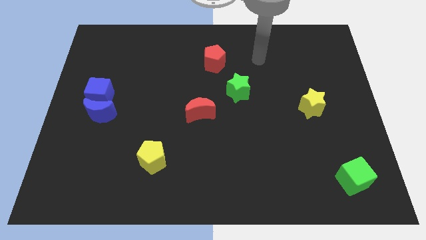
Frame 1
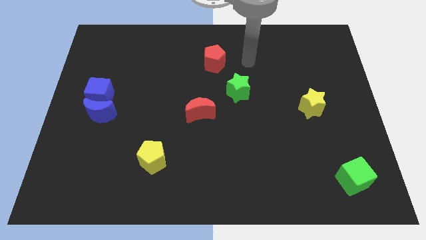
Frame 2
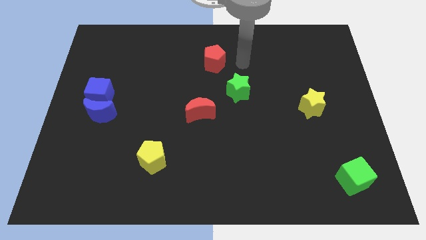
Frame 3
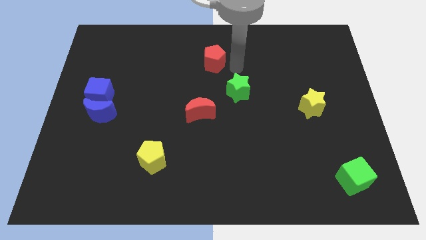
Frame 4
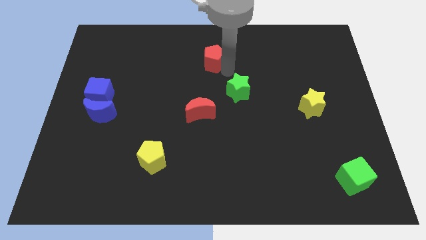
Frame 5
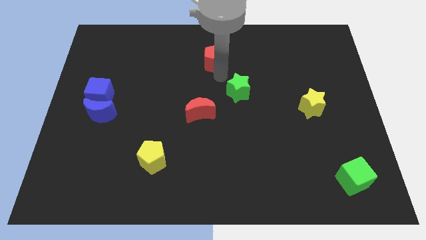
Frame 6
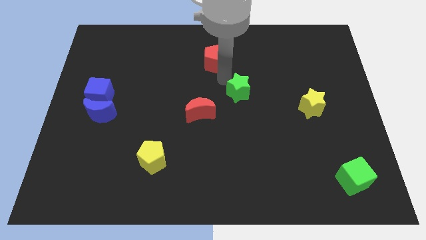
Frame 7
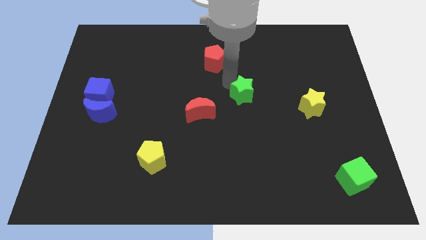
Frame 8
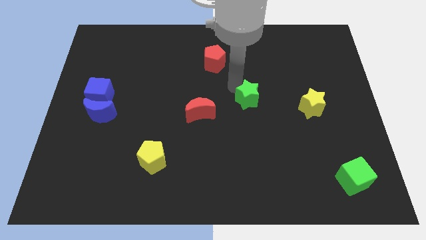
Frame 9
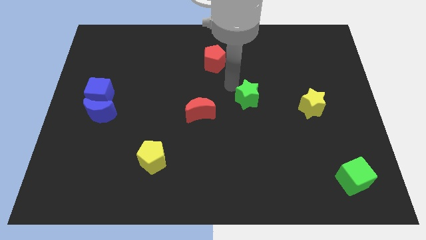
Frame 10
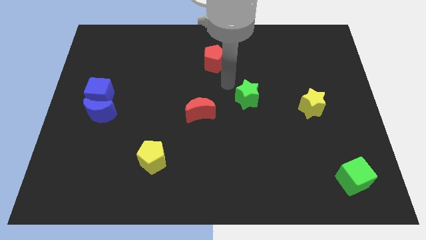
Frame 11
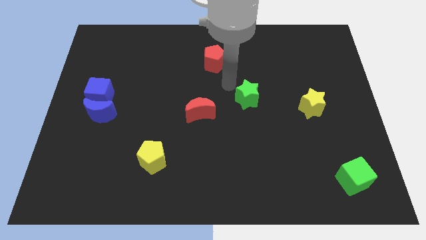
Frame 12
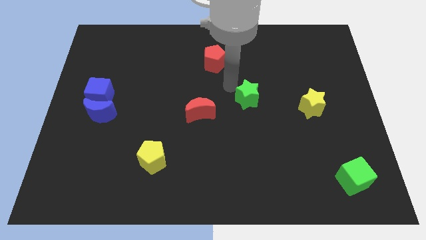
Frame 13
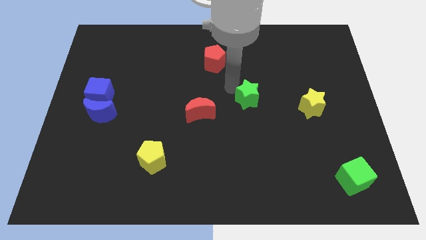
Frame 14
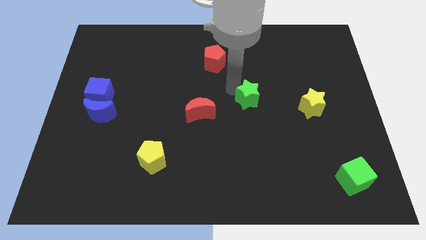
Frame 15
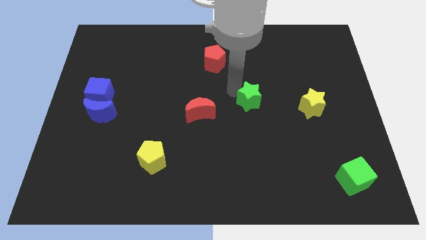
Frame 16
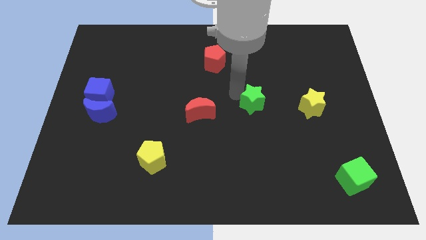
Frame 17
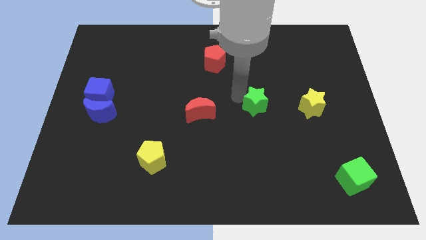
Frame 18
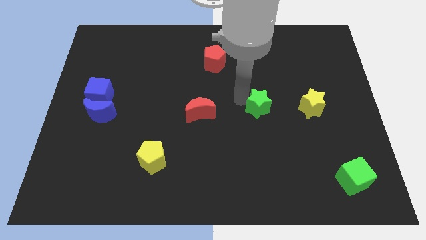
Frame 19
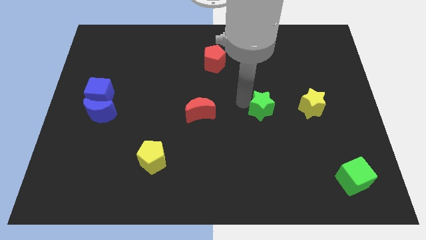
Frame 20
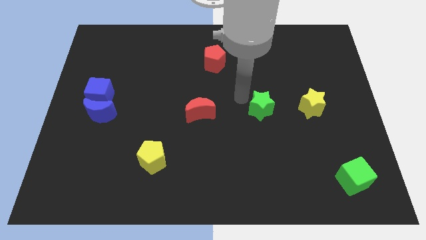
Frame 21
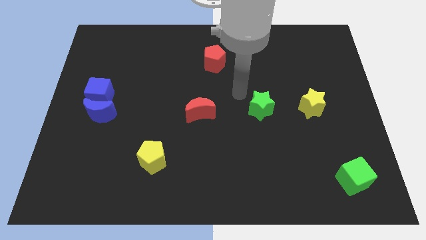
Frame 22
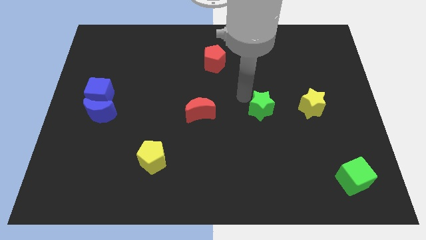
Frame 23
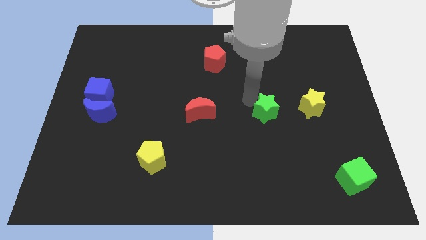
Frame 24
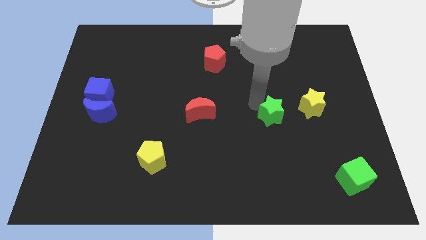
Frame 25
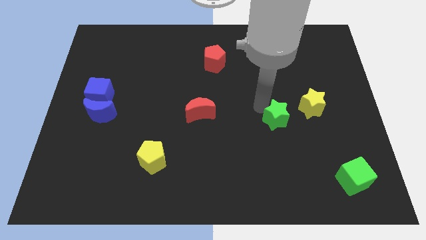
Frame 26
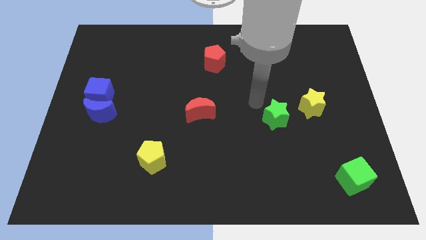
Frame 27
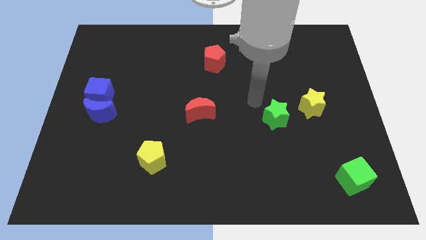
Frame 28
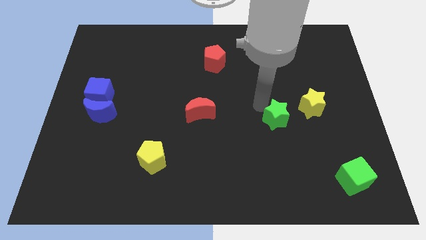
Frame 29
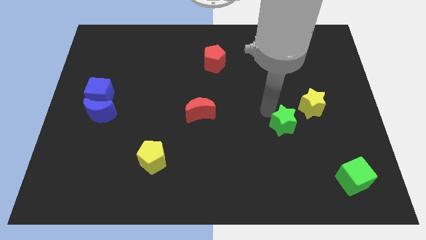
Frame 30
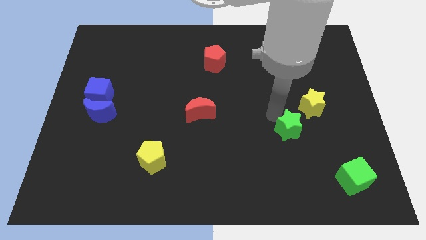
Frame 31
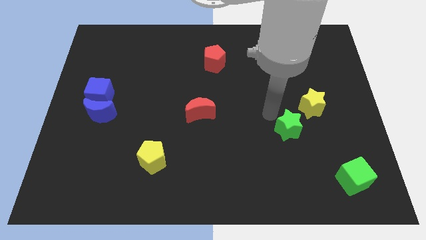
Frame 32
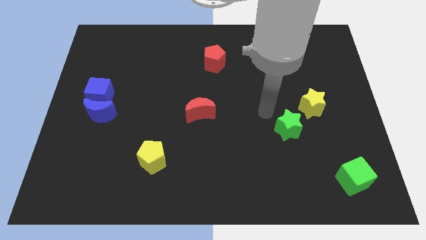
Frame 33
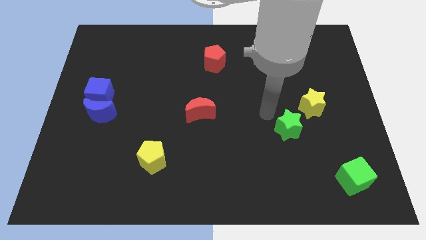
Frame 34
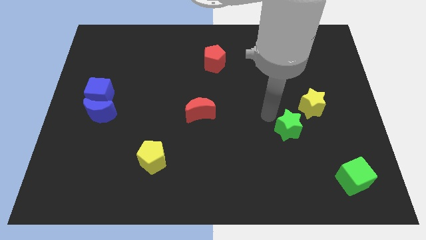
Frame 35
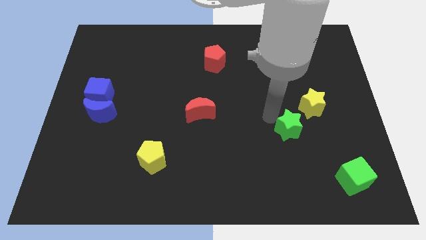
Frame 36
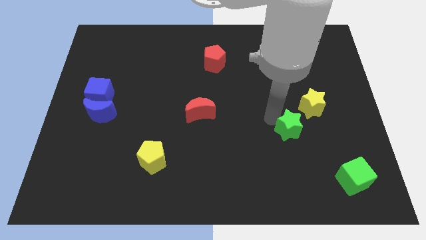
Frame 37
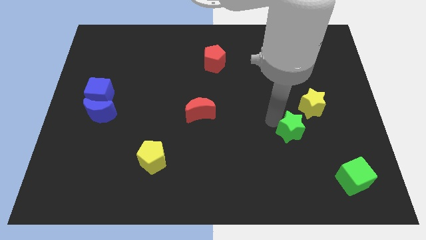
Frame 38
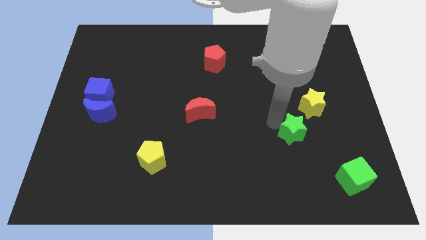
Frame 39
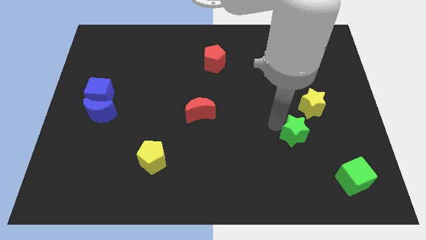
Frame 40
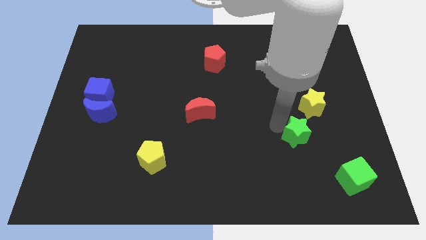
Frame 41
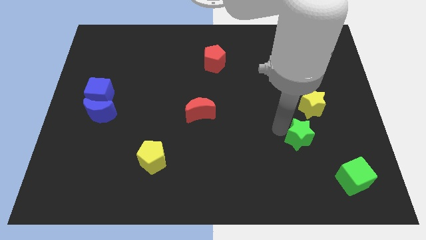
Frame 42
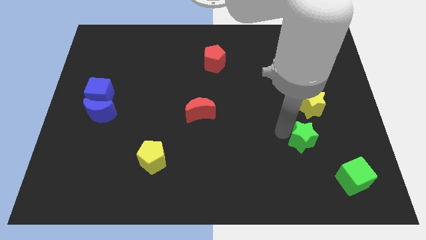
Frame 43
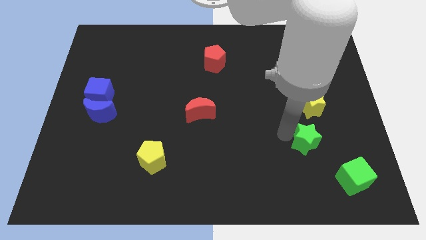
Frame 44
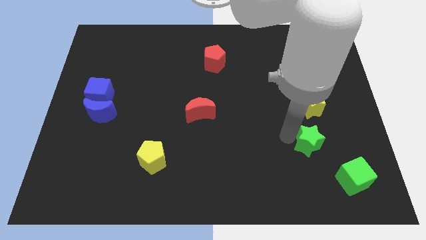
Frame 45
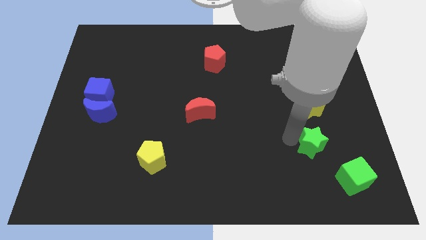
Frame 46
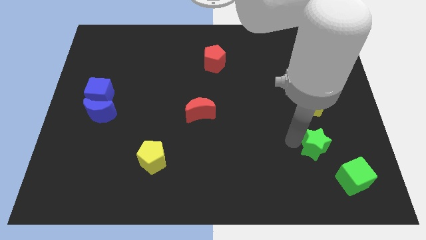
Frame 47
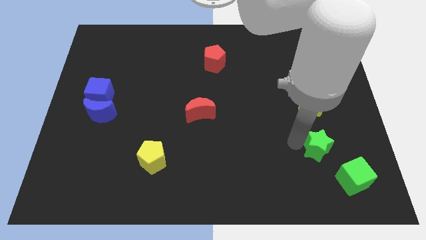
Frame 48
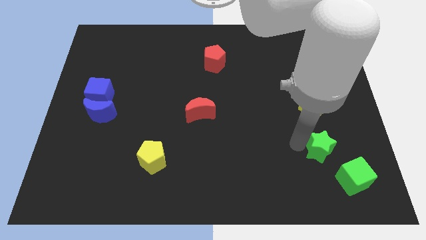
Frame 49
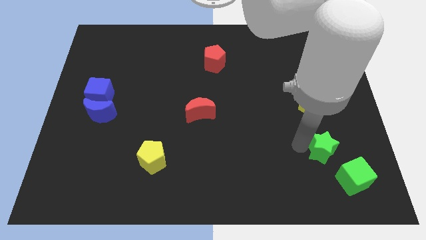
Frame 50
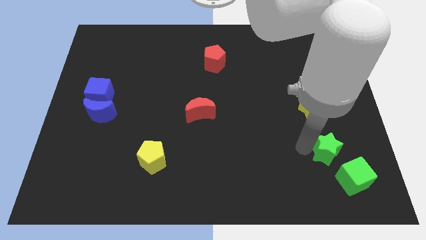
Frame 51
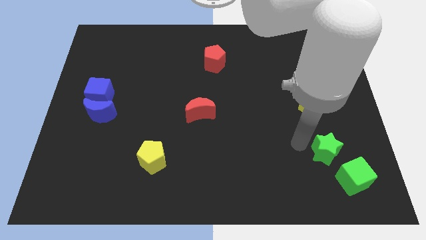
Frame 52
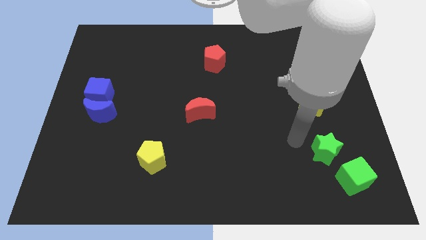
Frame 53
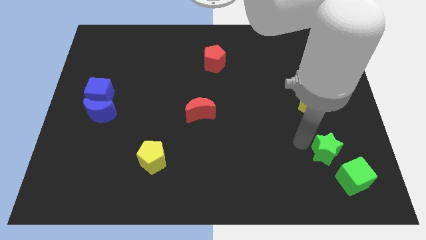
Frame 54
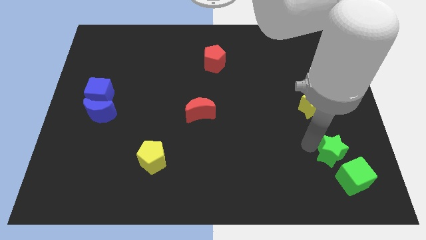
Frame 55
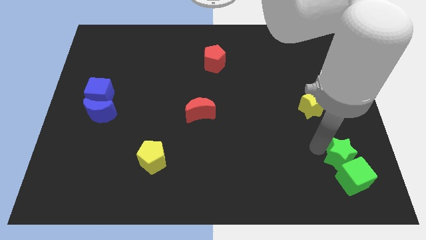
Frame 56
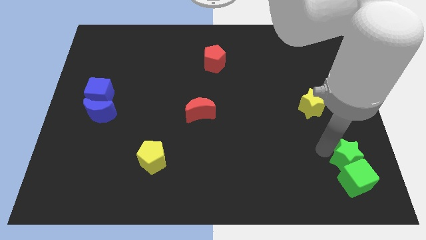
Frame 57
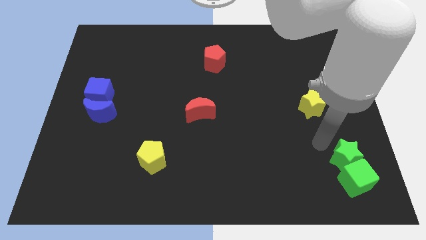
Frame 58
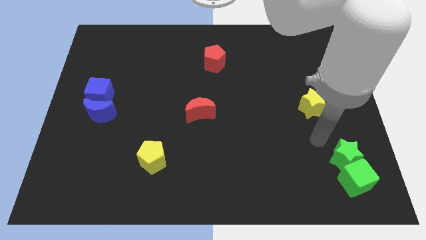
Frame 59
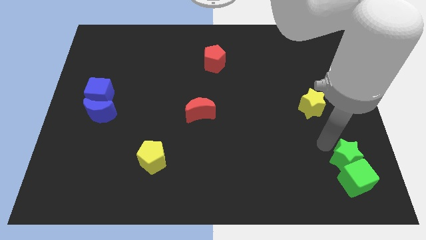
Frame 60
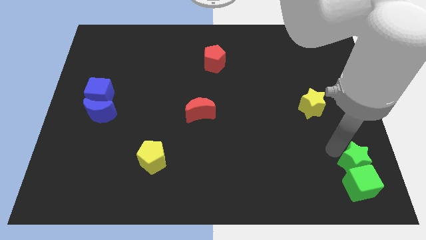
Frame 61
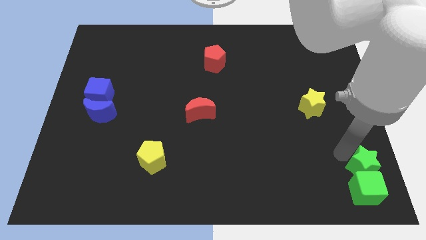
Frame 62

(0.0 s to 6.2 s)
push the green star to the bottom right
